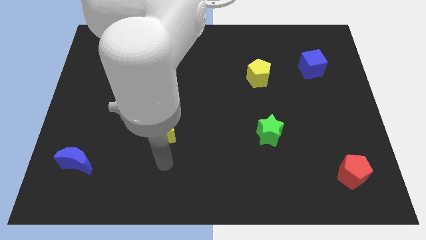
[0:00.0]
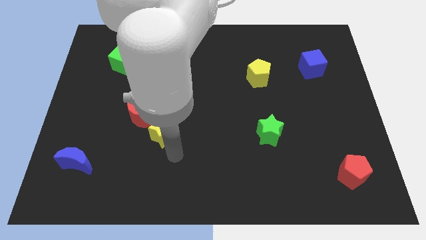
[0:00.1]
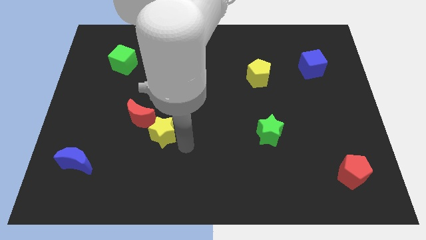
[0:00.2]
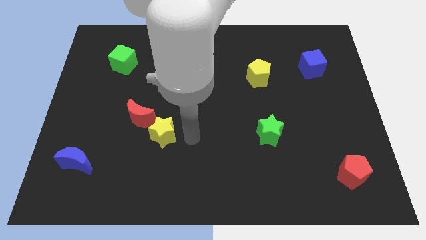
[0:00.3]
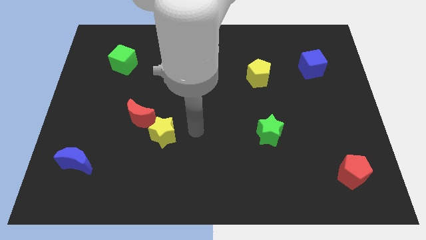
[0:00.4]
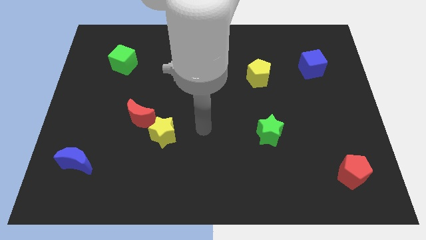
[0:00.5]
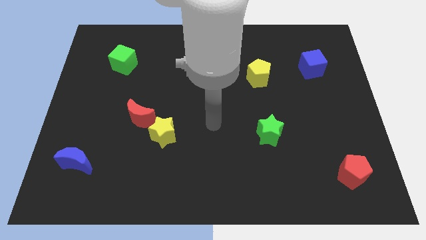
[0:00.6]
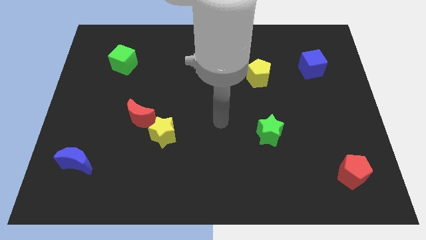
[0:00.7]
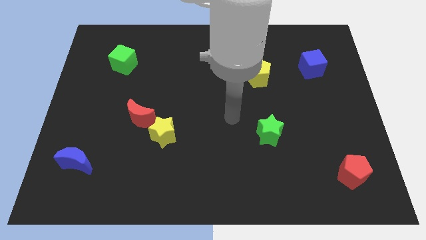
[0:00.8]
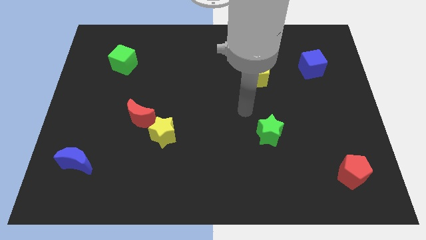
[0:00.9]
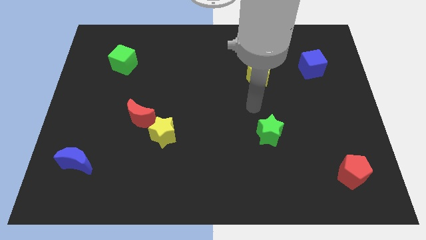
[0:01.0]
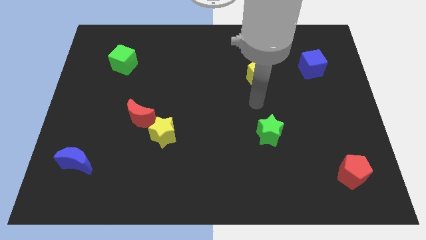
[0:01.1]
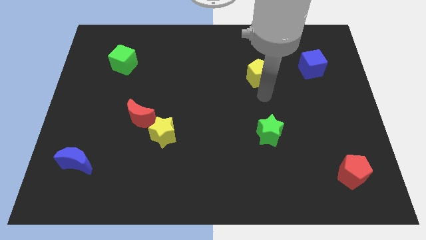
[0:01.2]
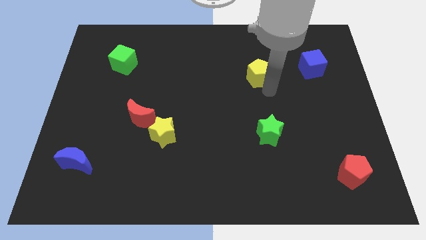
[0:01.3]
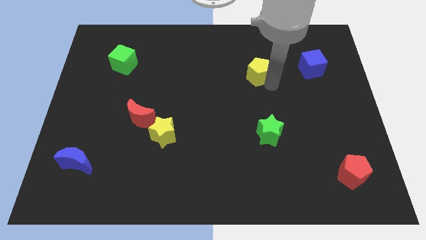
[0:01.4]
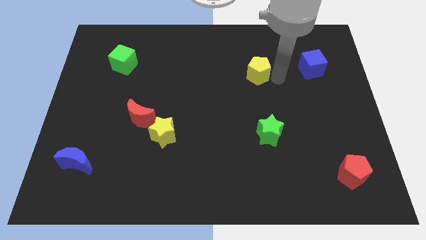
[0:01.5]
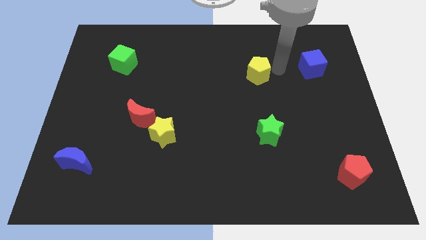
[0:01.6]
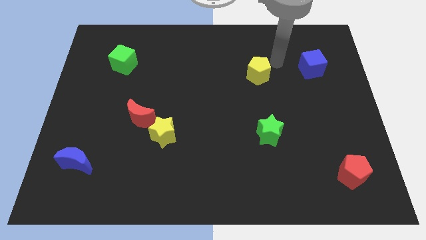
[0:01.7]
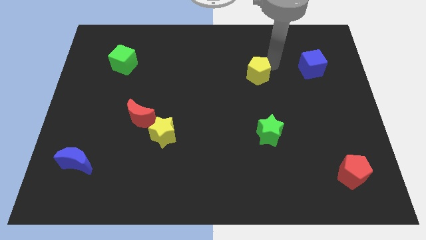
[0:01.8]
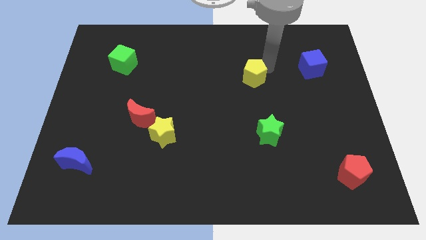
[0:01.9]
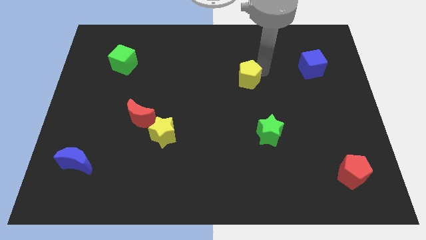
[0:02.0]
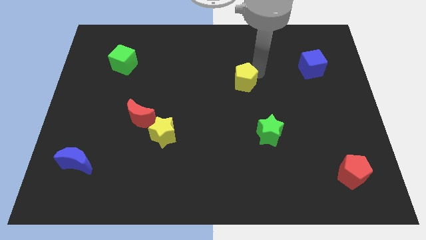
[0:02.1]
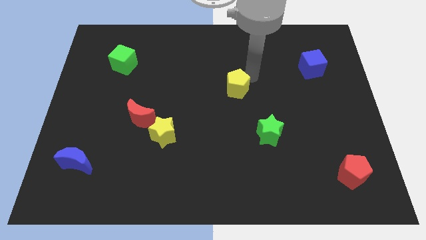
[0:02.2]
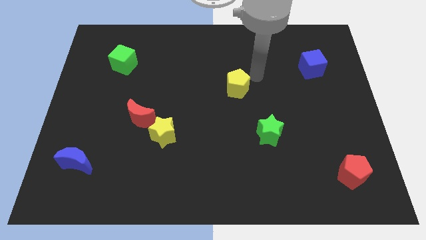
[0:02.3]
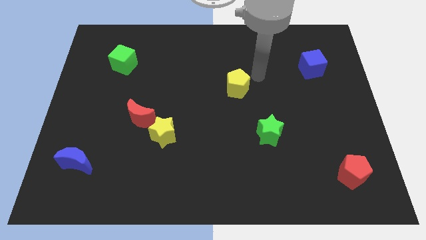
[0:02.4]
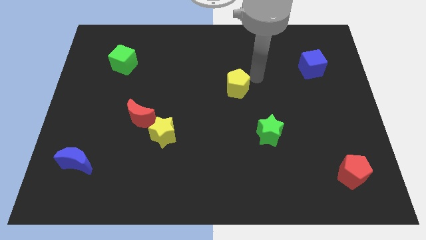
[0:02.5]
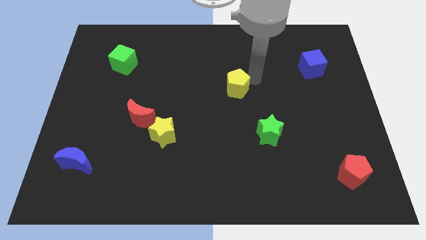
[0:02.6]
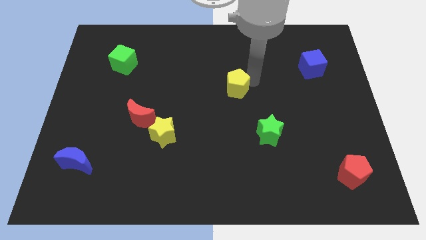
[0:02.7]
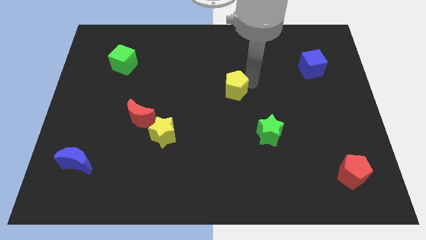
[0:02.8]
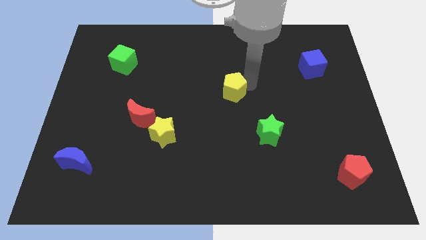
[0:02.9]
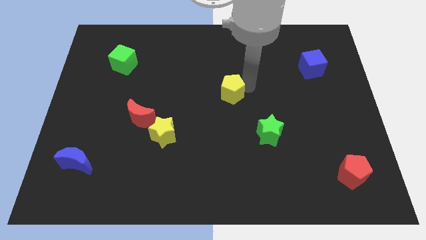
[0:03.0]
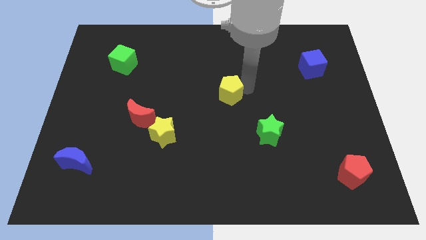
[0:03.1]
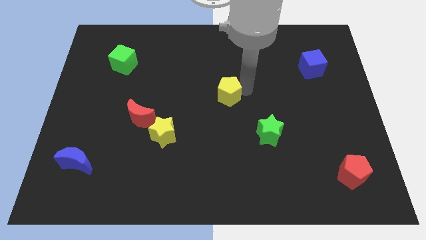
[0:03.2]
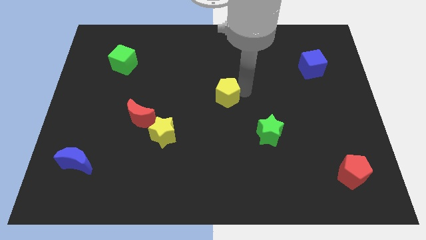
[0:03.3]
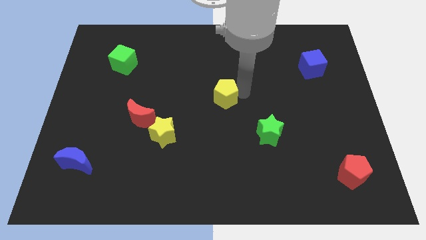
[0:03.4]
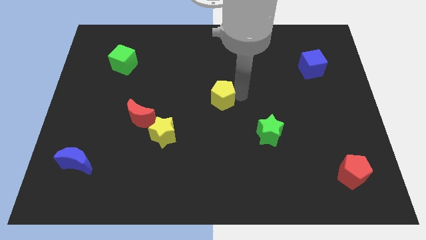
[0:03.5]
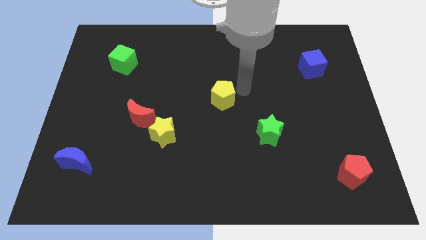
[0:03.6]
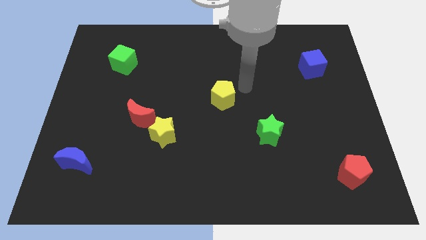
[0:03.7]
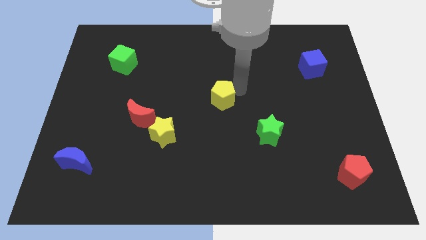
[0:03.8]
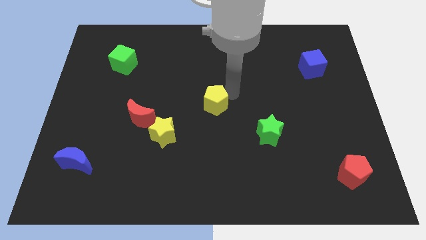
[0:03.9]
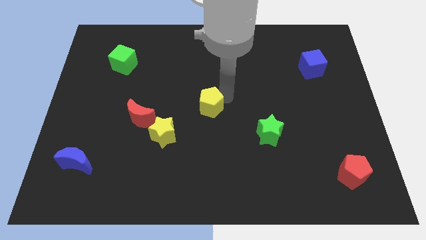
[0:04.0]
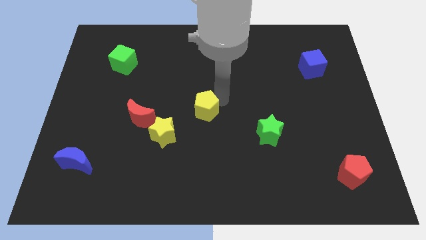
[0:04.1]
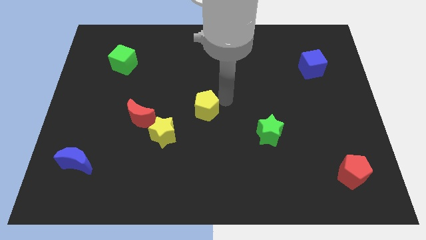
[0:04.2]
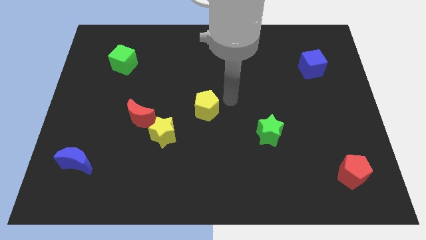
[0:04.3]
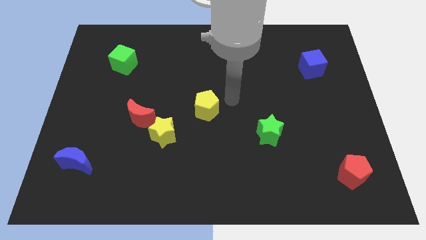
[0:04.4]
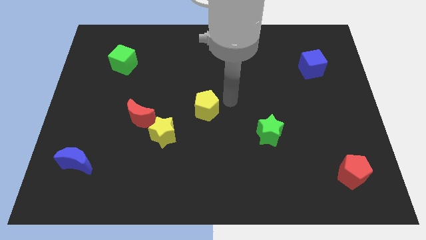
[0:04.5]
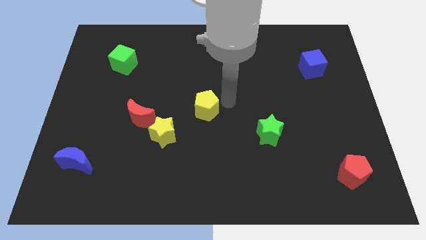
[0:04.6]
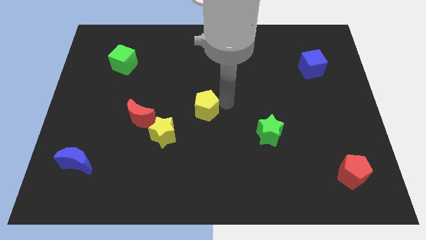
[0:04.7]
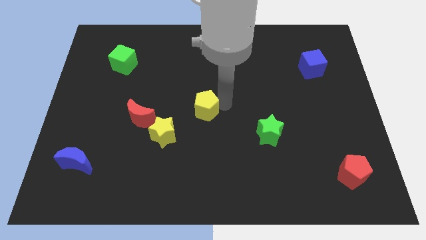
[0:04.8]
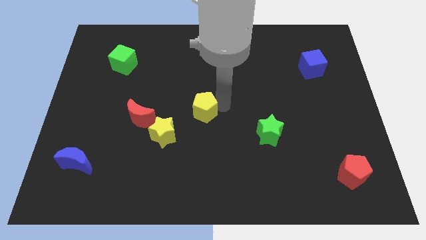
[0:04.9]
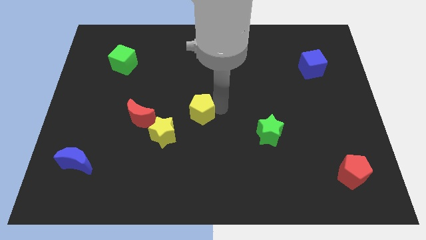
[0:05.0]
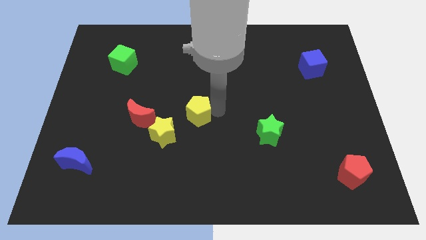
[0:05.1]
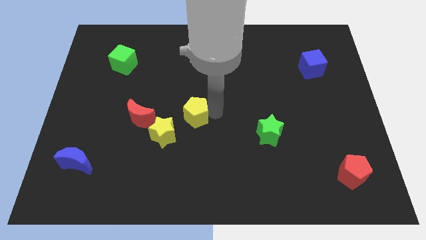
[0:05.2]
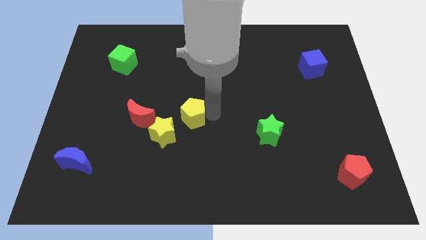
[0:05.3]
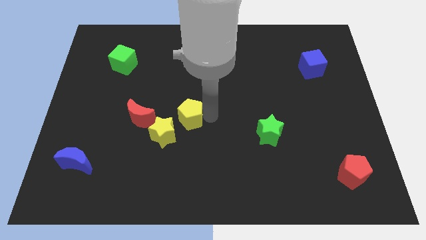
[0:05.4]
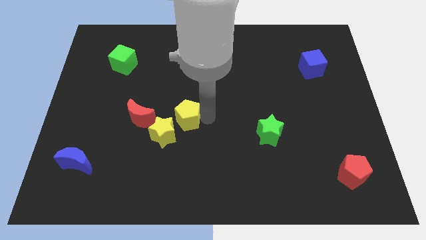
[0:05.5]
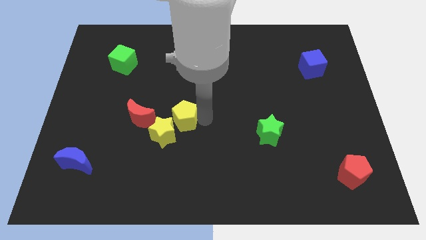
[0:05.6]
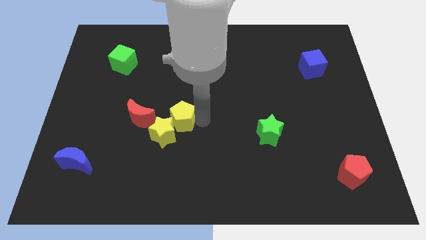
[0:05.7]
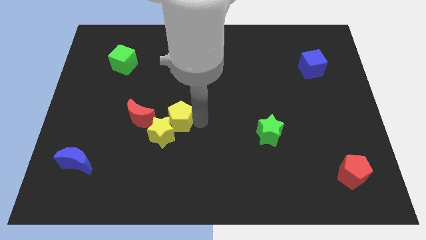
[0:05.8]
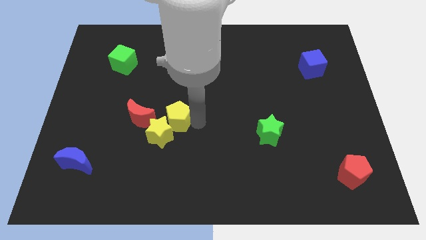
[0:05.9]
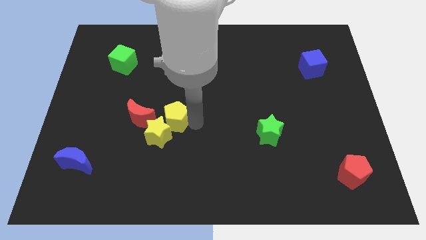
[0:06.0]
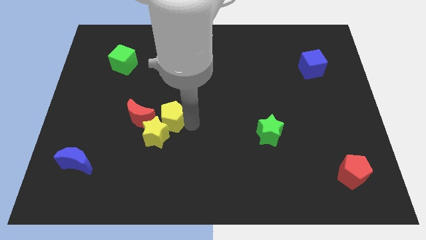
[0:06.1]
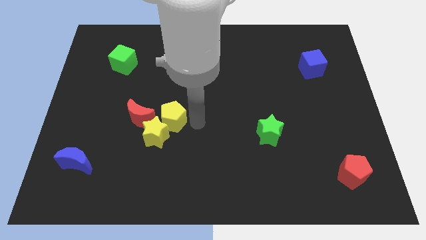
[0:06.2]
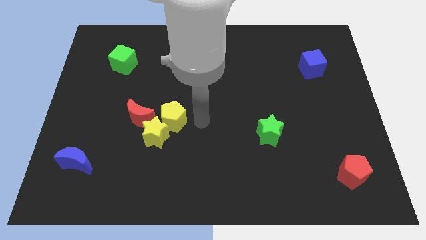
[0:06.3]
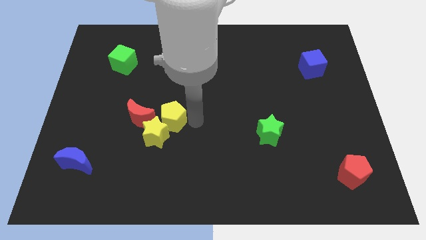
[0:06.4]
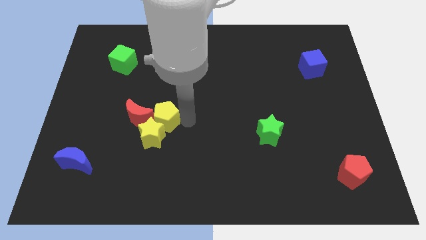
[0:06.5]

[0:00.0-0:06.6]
push the yellow pentagon towards the red moon
